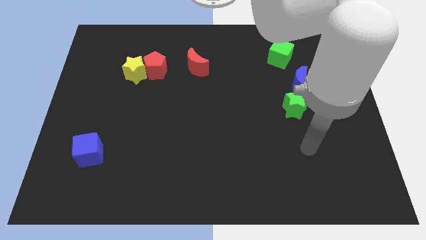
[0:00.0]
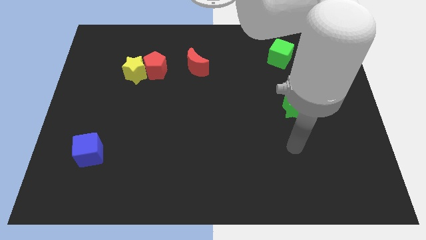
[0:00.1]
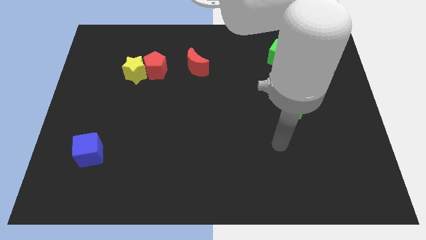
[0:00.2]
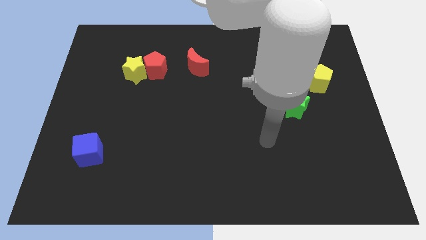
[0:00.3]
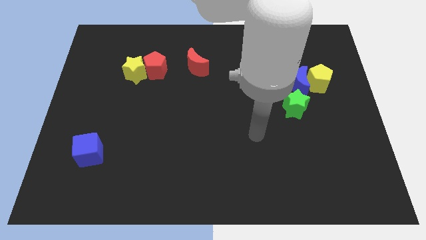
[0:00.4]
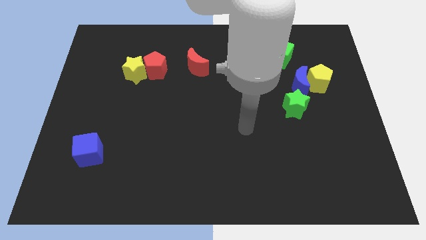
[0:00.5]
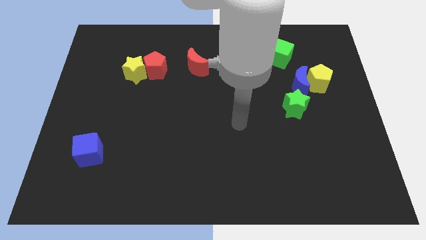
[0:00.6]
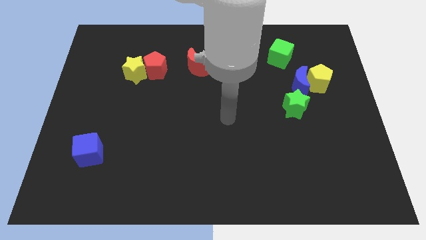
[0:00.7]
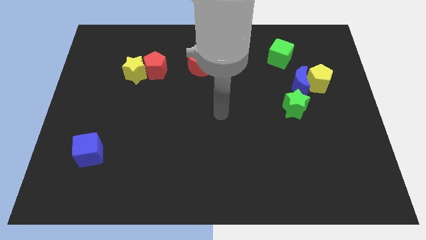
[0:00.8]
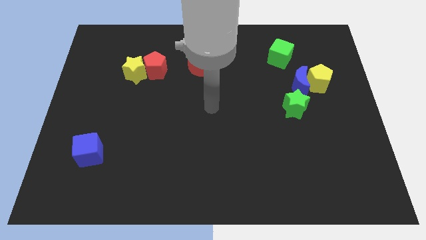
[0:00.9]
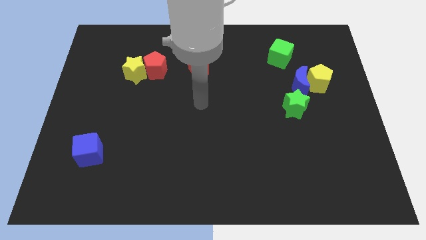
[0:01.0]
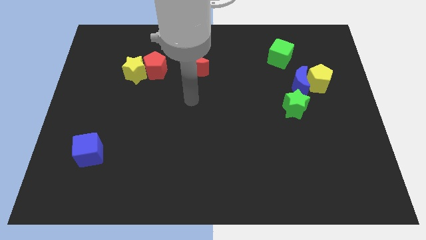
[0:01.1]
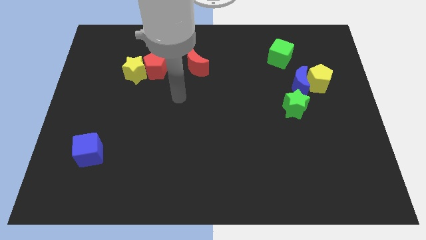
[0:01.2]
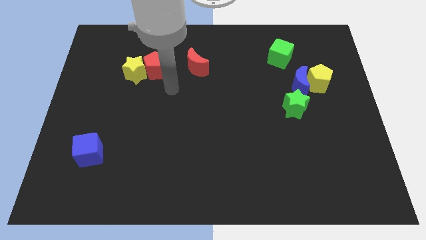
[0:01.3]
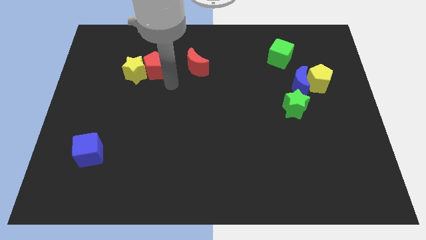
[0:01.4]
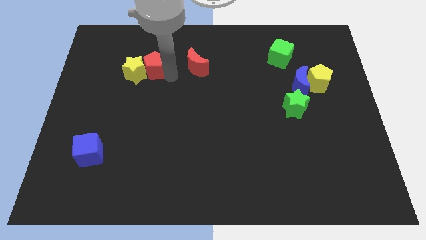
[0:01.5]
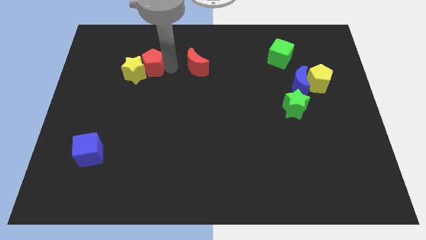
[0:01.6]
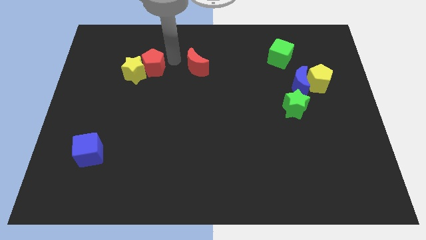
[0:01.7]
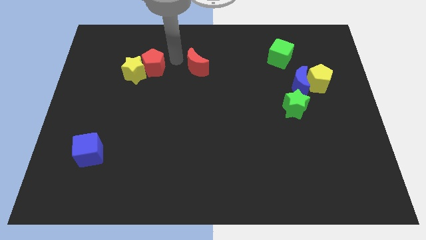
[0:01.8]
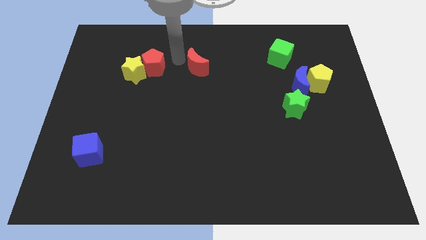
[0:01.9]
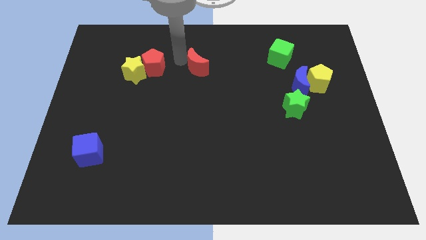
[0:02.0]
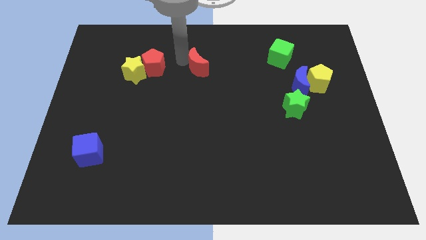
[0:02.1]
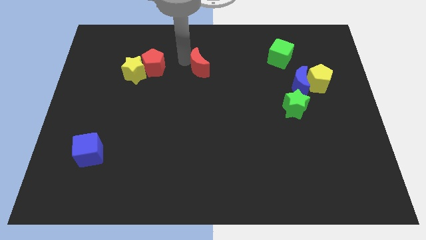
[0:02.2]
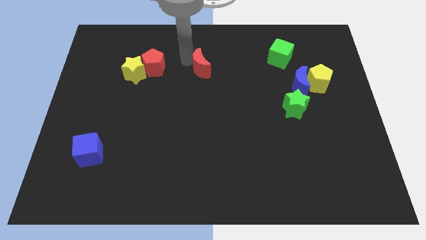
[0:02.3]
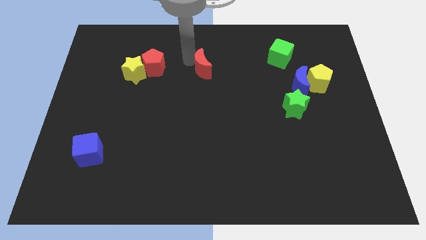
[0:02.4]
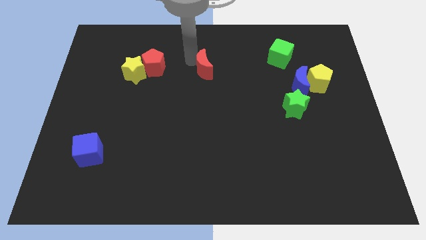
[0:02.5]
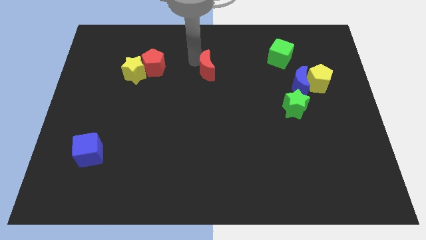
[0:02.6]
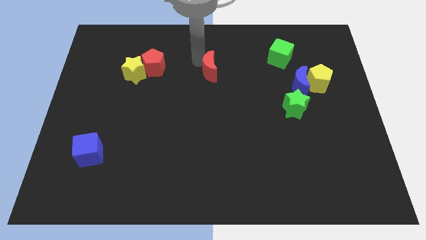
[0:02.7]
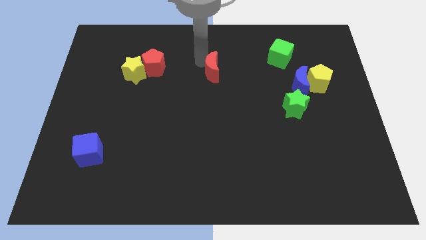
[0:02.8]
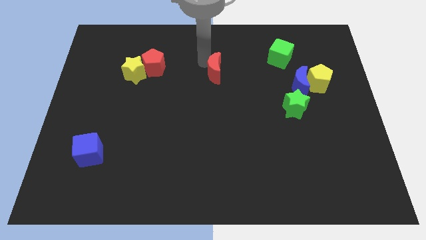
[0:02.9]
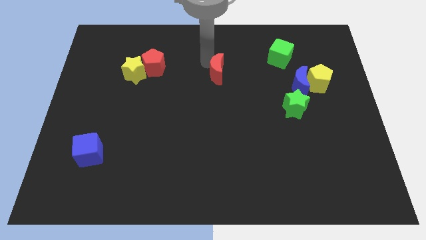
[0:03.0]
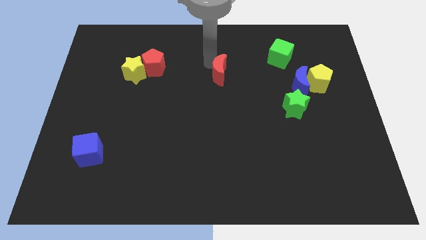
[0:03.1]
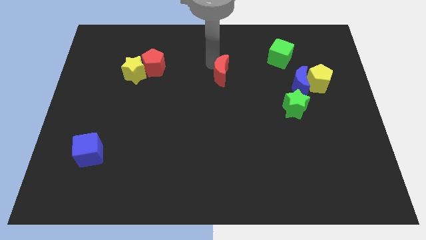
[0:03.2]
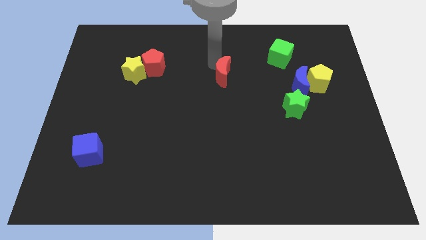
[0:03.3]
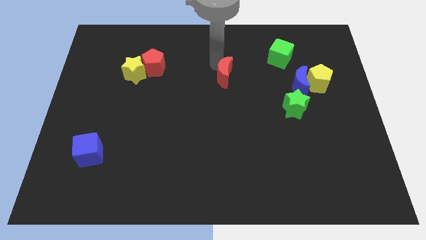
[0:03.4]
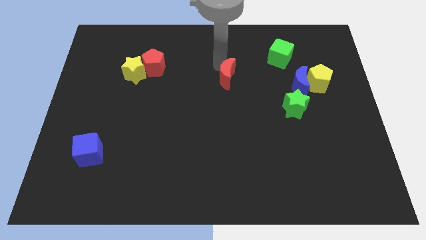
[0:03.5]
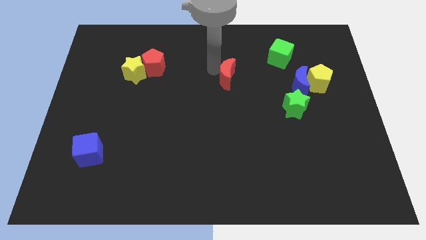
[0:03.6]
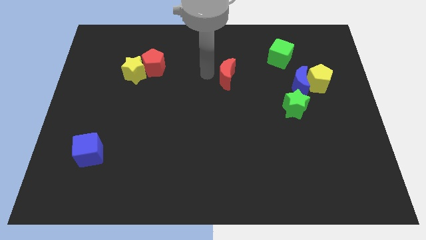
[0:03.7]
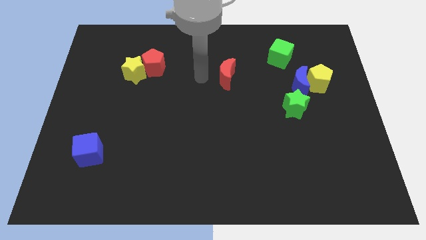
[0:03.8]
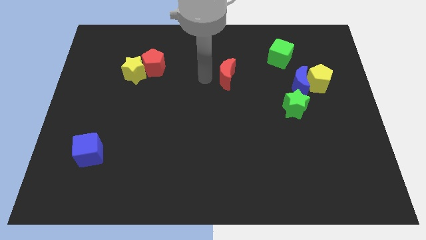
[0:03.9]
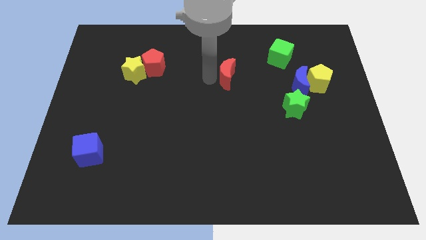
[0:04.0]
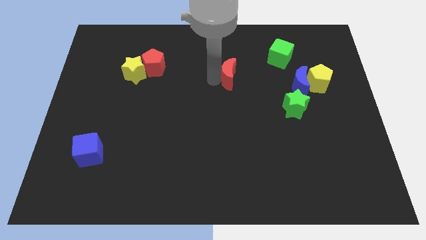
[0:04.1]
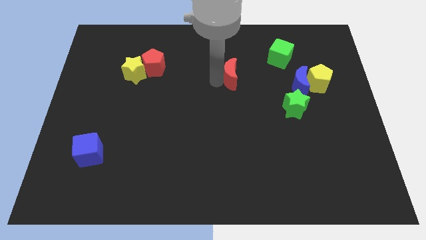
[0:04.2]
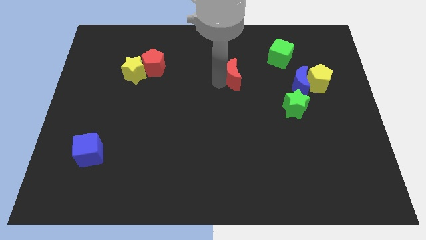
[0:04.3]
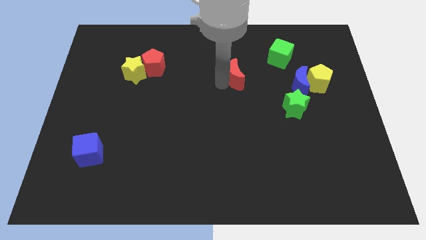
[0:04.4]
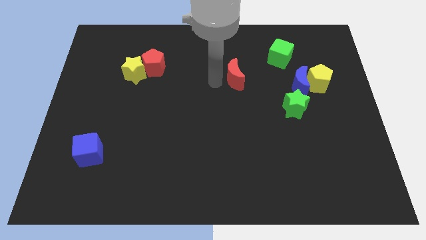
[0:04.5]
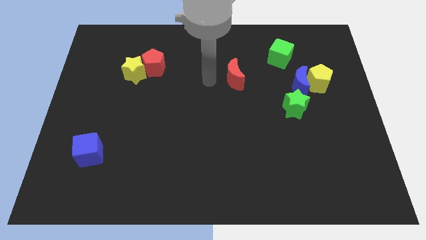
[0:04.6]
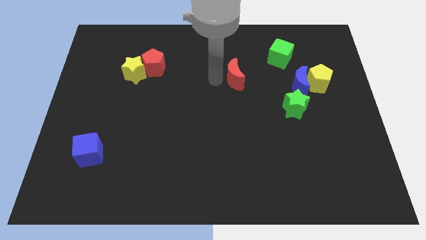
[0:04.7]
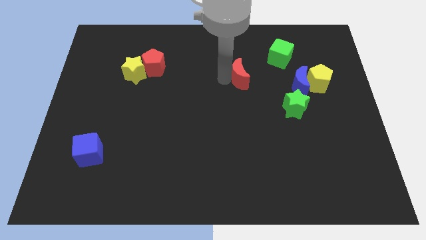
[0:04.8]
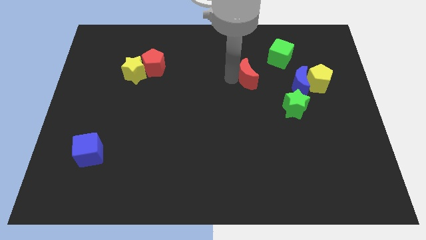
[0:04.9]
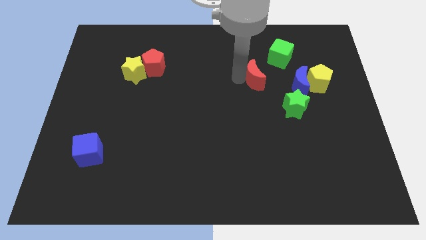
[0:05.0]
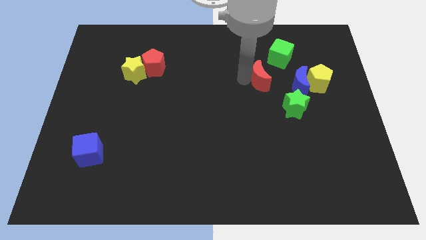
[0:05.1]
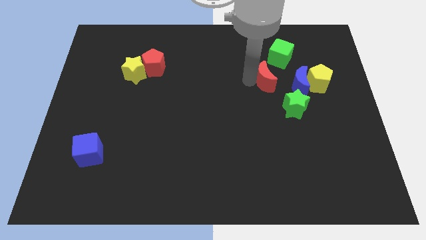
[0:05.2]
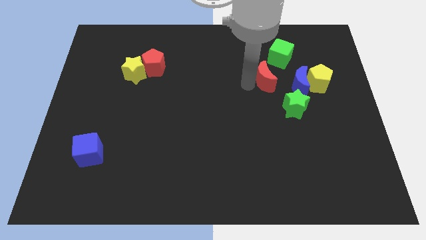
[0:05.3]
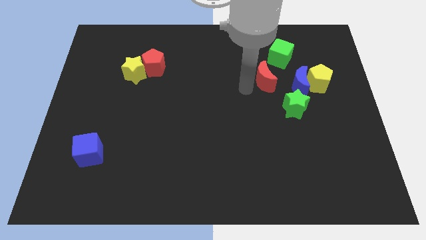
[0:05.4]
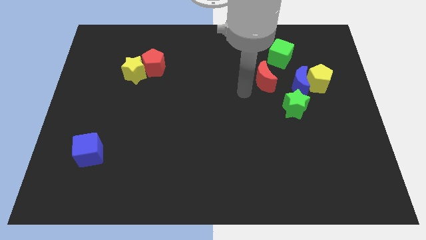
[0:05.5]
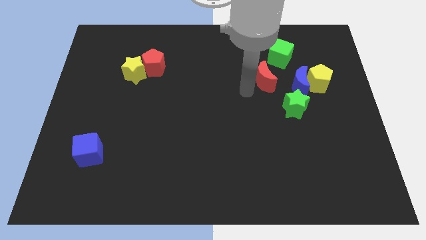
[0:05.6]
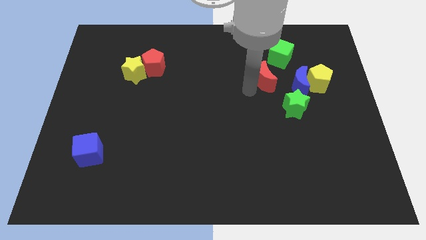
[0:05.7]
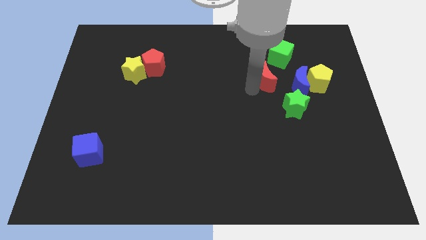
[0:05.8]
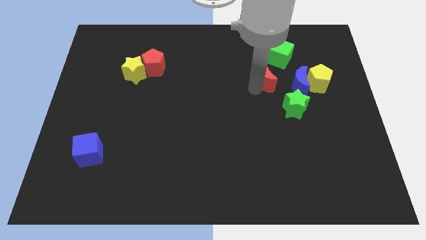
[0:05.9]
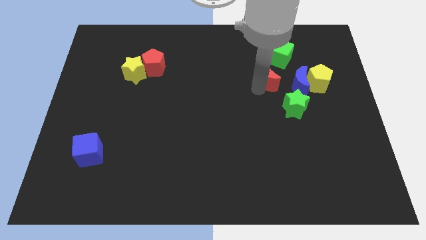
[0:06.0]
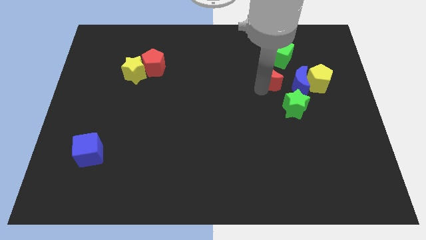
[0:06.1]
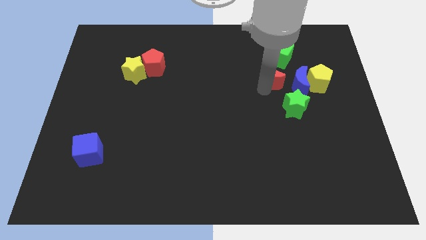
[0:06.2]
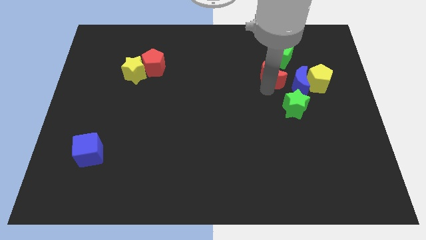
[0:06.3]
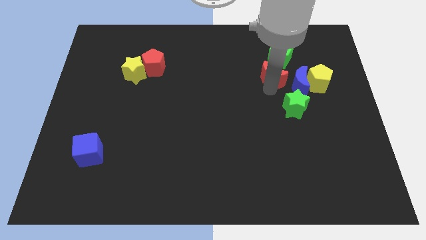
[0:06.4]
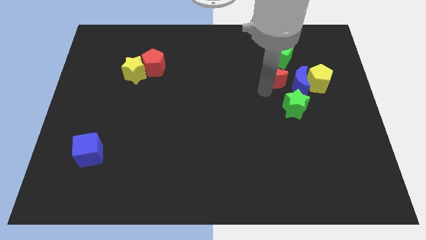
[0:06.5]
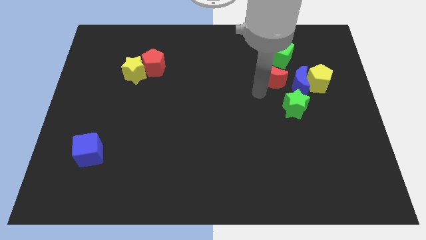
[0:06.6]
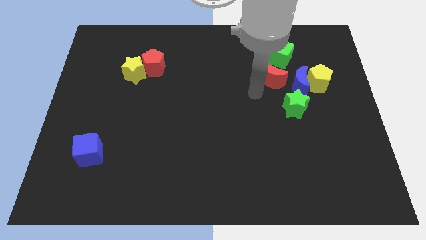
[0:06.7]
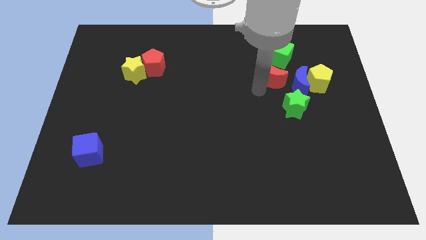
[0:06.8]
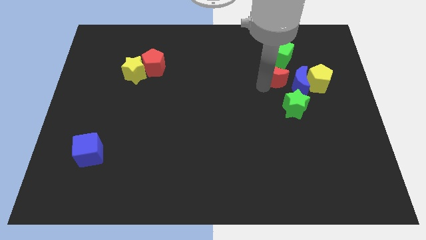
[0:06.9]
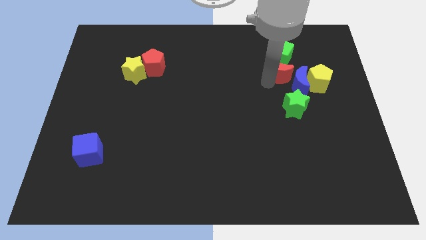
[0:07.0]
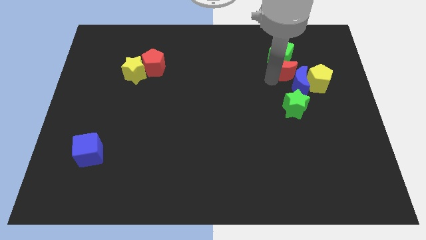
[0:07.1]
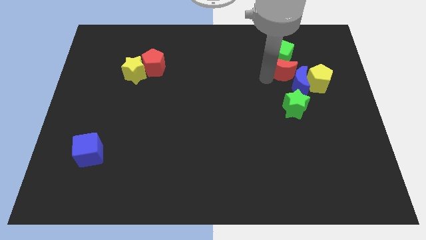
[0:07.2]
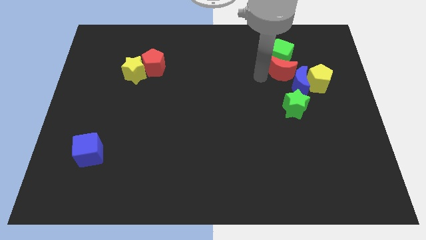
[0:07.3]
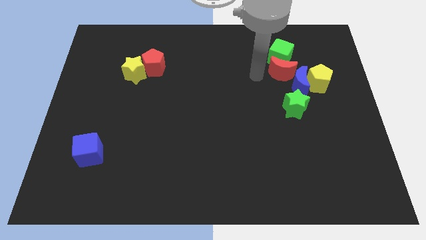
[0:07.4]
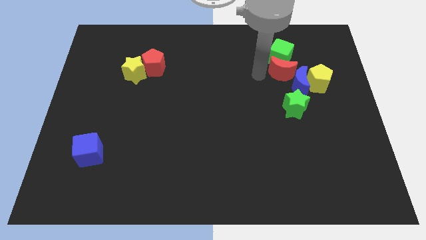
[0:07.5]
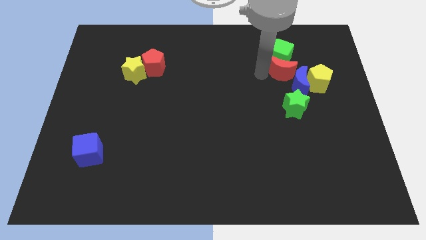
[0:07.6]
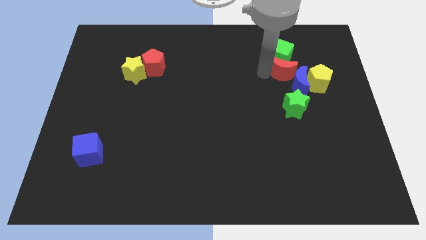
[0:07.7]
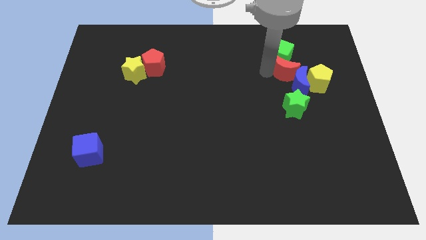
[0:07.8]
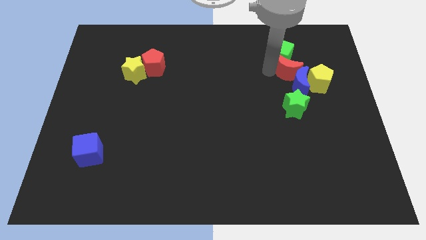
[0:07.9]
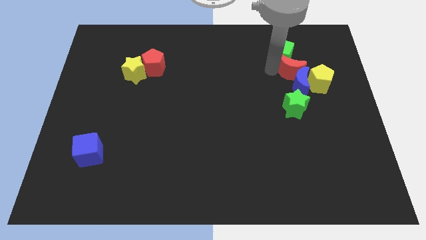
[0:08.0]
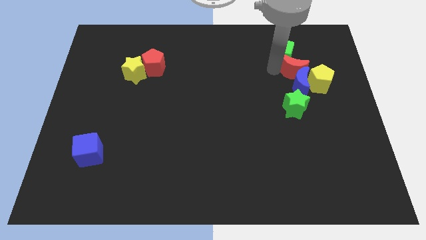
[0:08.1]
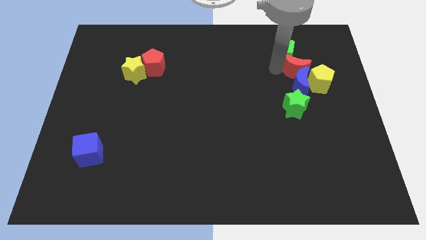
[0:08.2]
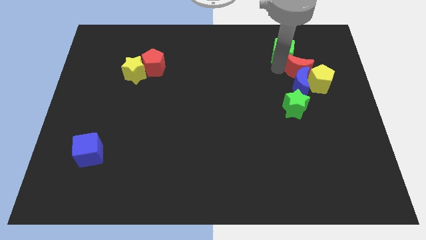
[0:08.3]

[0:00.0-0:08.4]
push the red moon to the yellow pentagon
